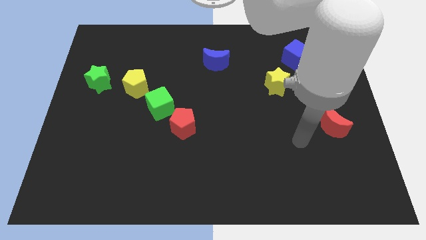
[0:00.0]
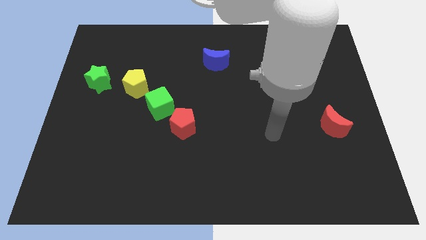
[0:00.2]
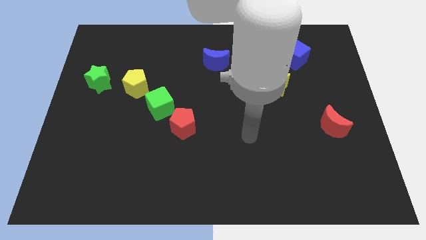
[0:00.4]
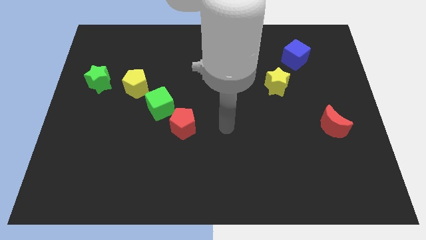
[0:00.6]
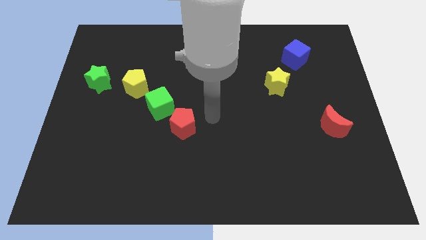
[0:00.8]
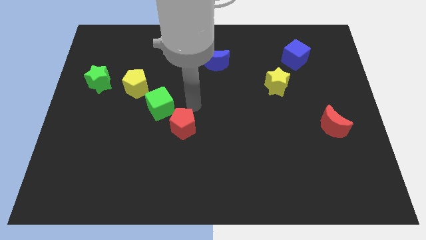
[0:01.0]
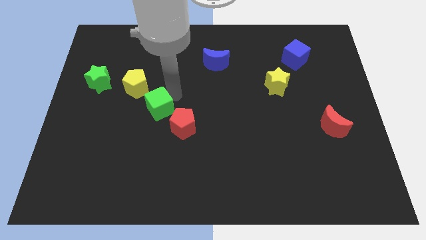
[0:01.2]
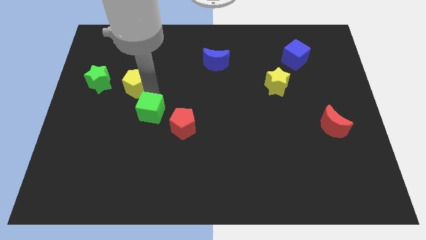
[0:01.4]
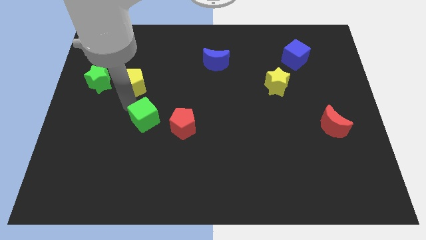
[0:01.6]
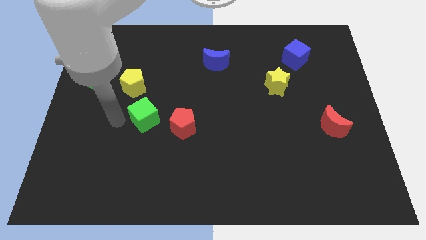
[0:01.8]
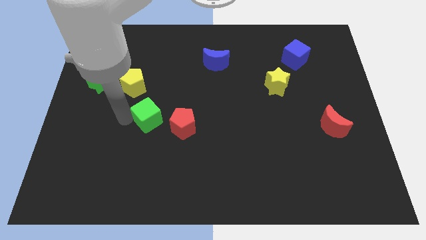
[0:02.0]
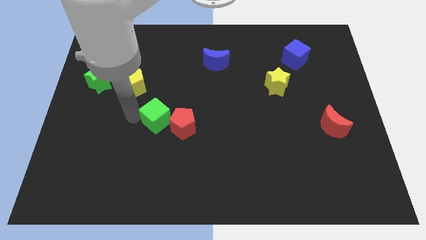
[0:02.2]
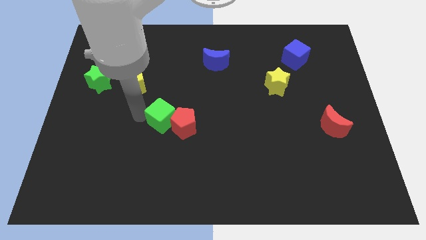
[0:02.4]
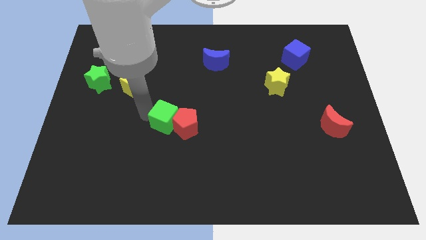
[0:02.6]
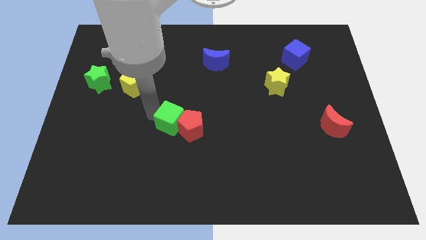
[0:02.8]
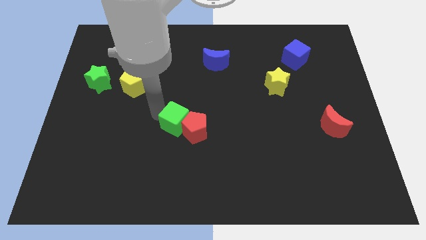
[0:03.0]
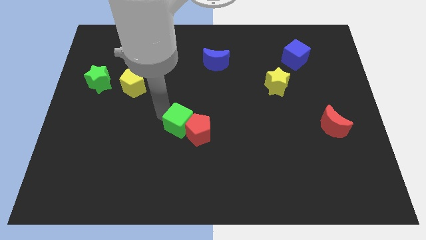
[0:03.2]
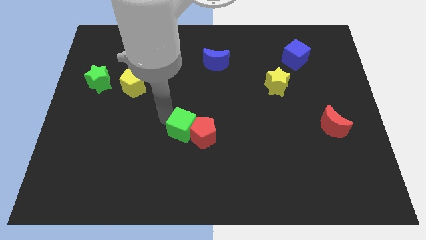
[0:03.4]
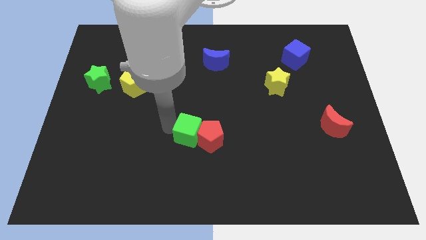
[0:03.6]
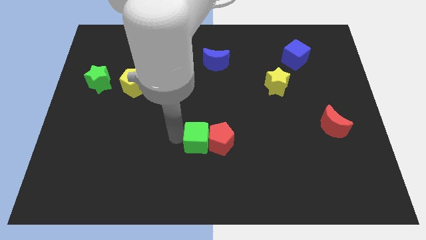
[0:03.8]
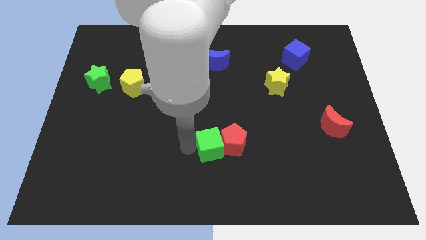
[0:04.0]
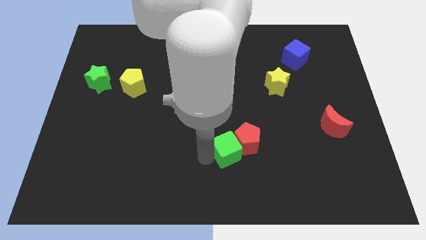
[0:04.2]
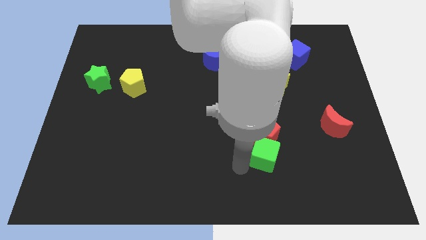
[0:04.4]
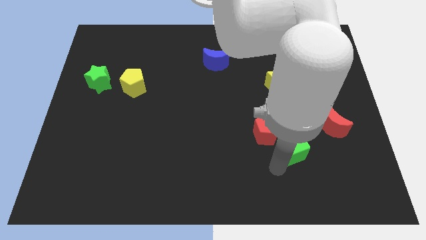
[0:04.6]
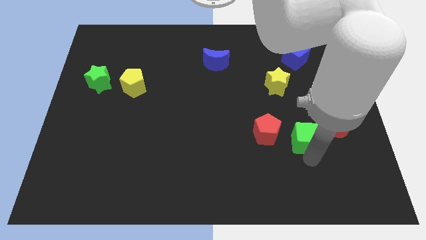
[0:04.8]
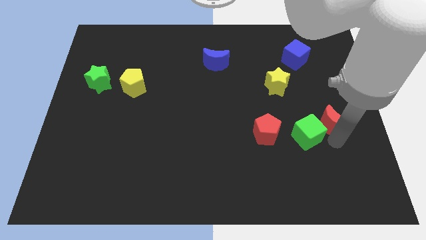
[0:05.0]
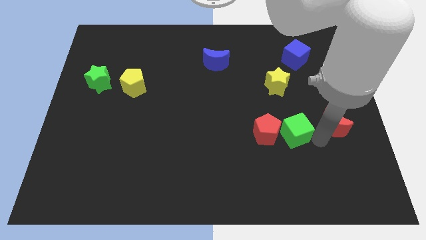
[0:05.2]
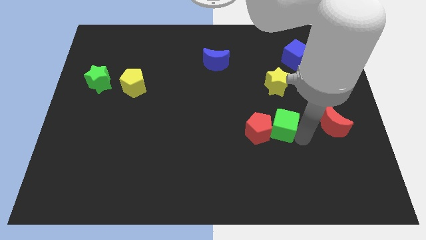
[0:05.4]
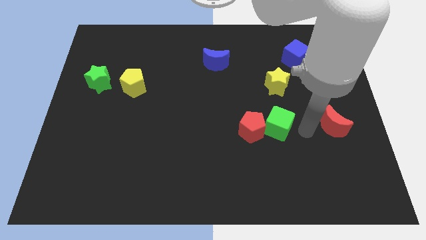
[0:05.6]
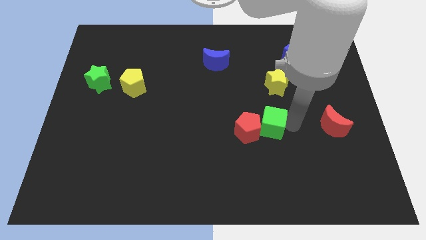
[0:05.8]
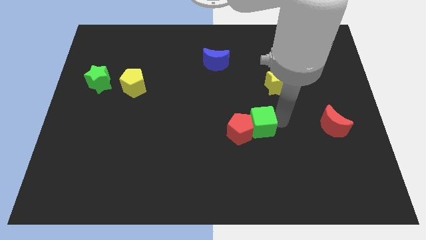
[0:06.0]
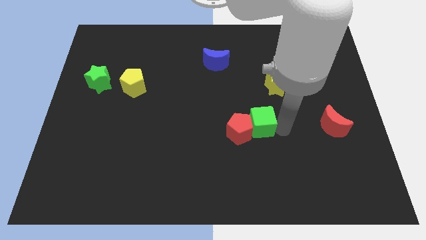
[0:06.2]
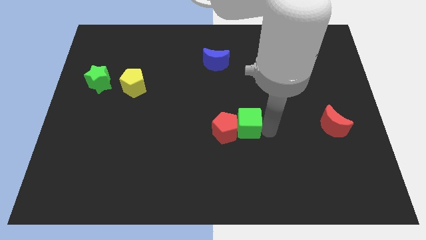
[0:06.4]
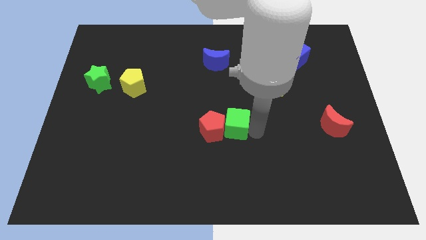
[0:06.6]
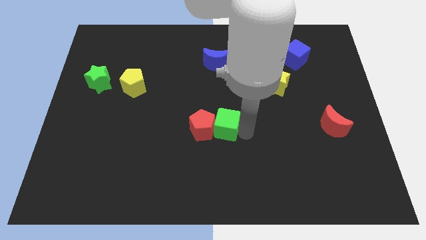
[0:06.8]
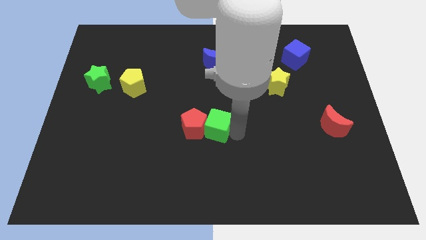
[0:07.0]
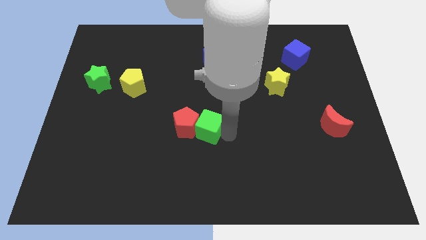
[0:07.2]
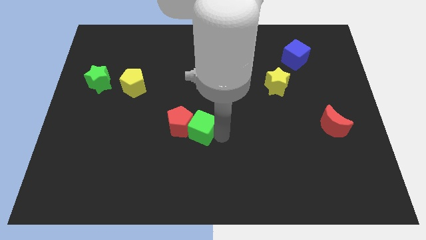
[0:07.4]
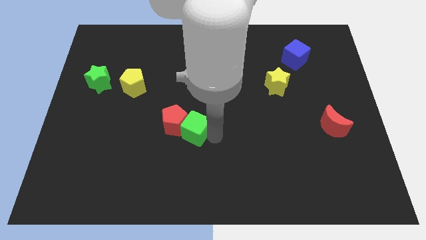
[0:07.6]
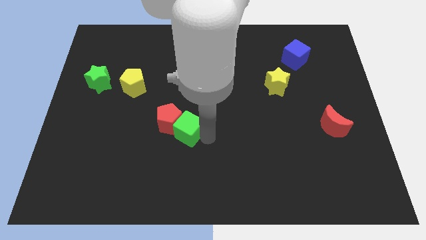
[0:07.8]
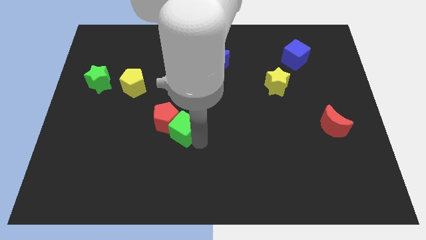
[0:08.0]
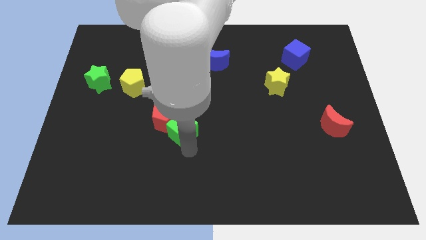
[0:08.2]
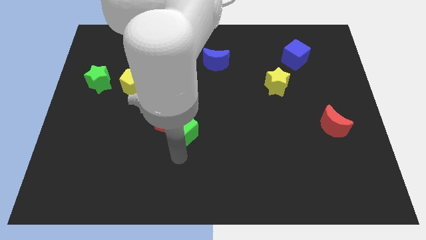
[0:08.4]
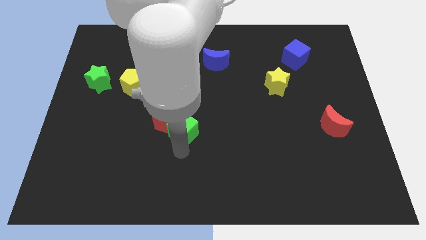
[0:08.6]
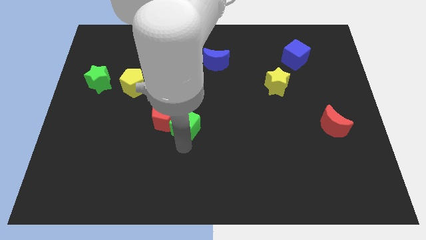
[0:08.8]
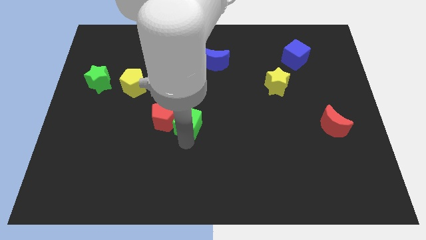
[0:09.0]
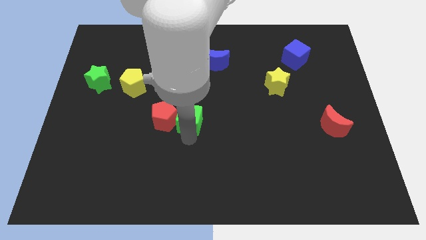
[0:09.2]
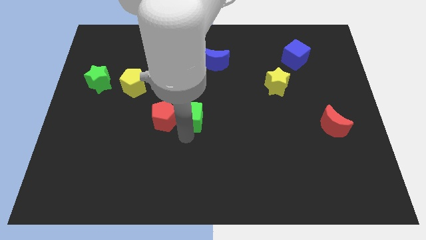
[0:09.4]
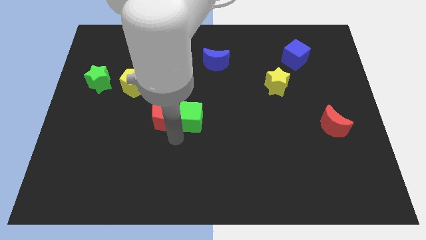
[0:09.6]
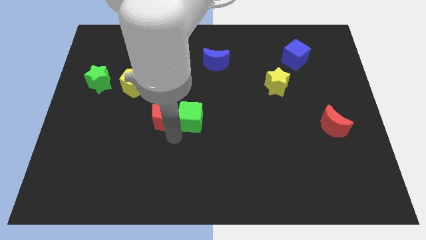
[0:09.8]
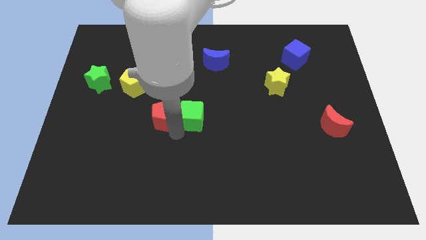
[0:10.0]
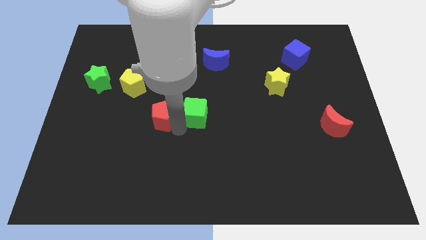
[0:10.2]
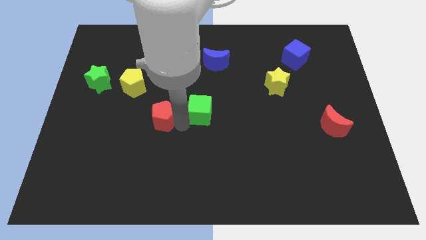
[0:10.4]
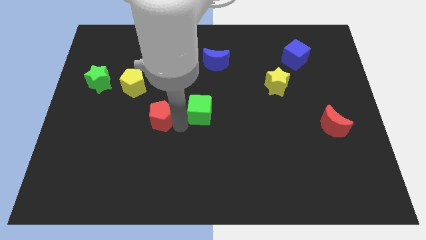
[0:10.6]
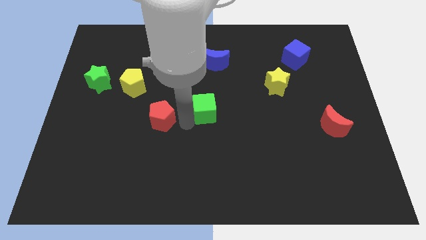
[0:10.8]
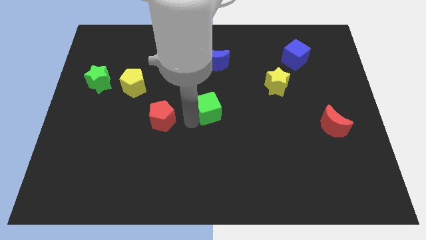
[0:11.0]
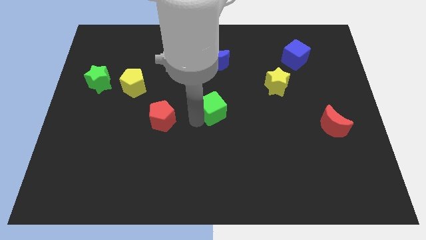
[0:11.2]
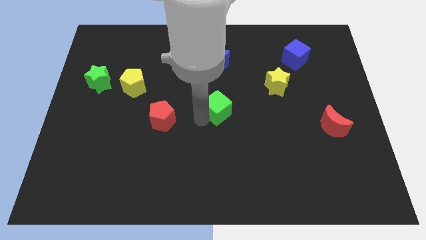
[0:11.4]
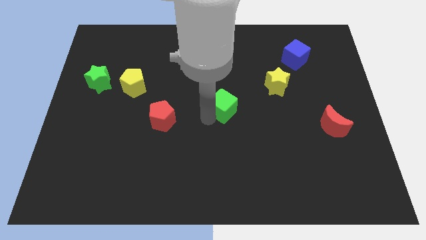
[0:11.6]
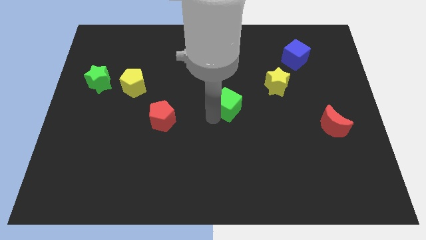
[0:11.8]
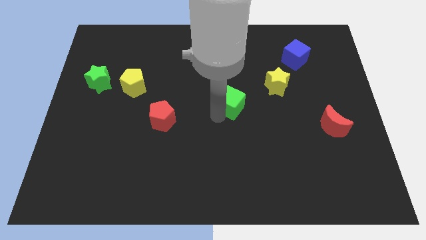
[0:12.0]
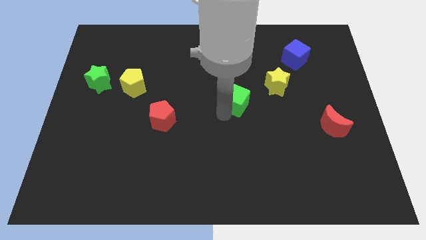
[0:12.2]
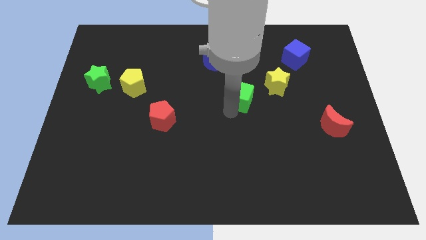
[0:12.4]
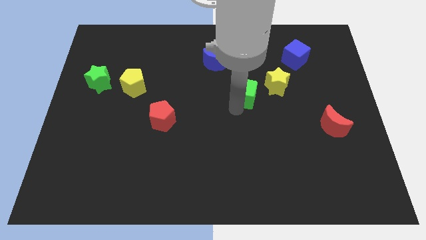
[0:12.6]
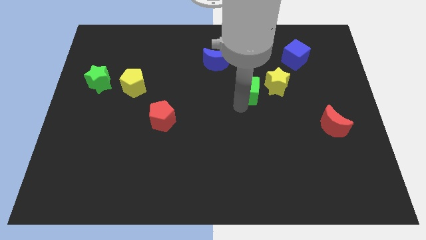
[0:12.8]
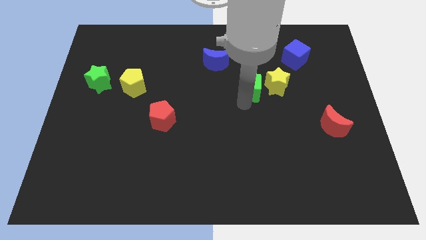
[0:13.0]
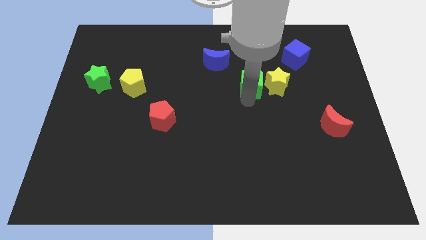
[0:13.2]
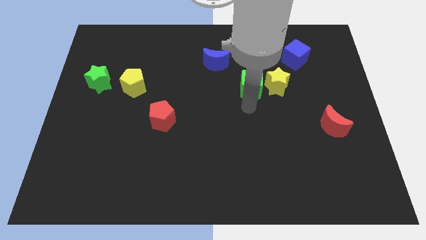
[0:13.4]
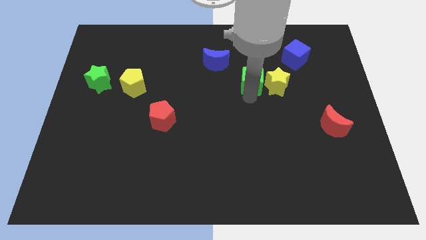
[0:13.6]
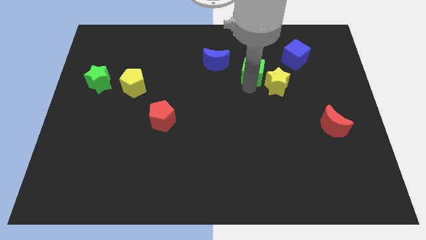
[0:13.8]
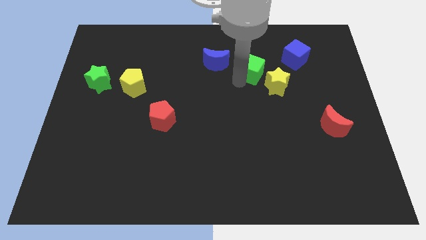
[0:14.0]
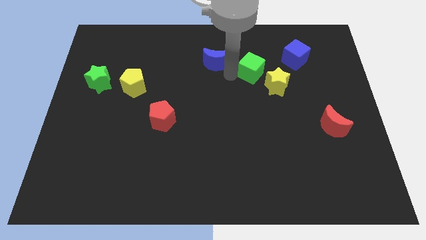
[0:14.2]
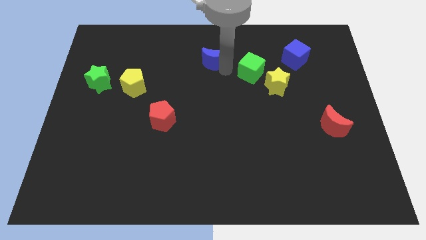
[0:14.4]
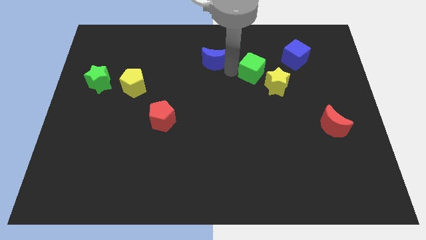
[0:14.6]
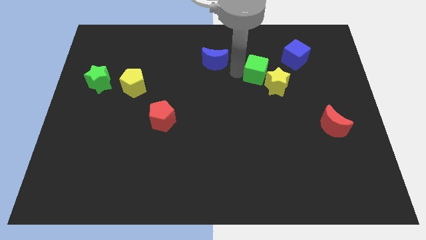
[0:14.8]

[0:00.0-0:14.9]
slide the green cube to the bottom left of the blue cube

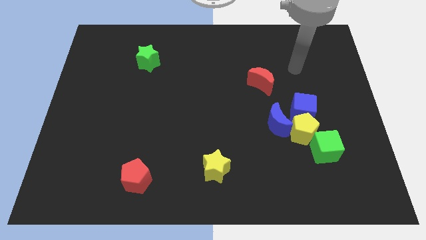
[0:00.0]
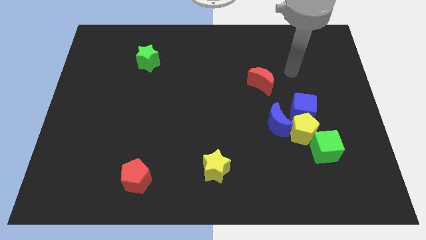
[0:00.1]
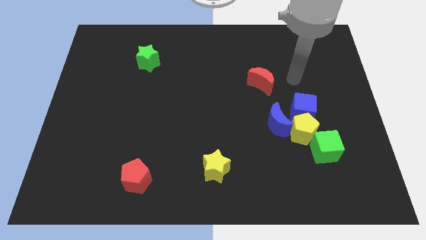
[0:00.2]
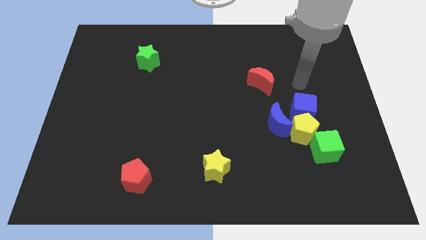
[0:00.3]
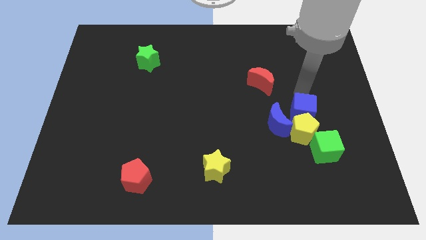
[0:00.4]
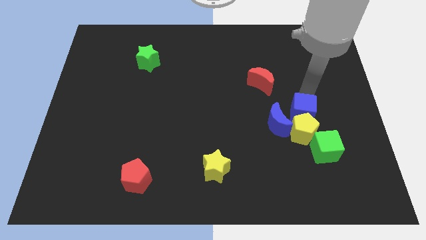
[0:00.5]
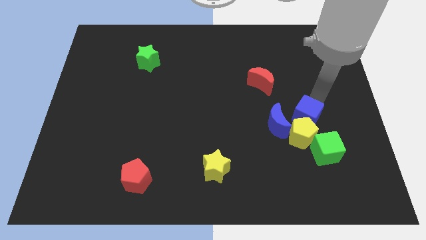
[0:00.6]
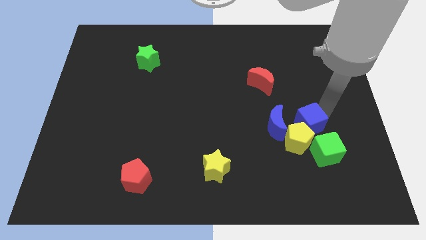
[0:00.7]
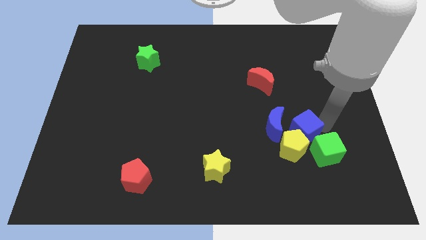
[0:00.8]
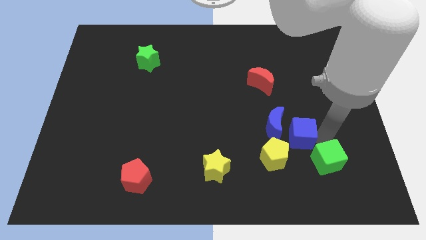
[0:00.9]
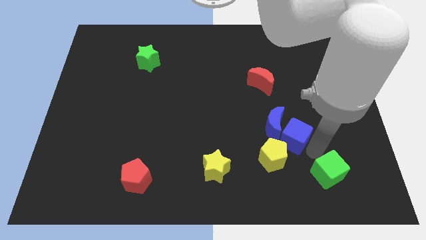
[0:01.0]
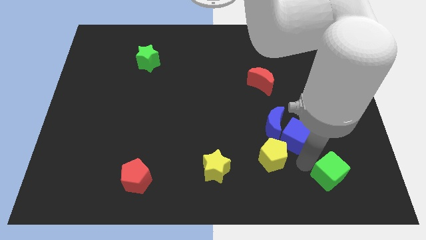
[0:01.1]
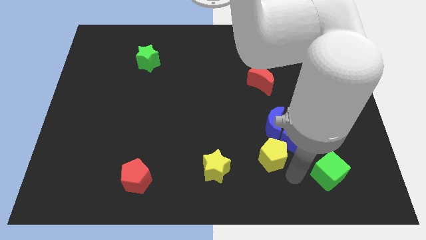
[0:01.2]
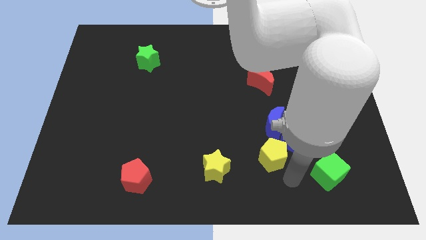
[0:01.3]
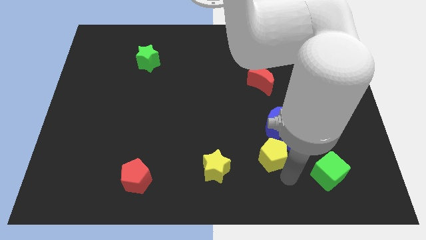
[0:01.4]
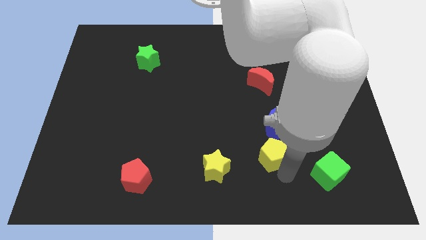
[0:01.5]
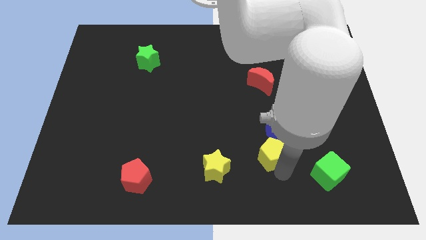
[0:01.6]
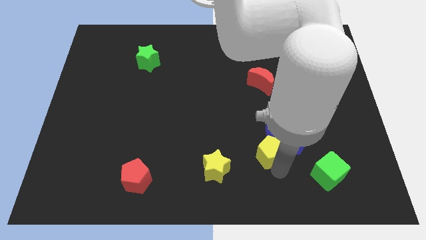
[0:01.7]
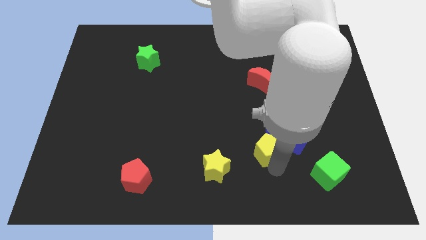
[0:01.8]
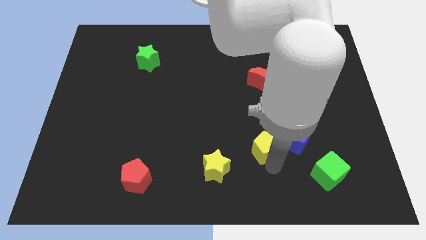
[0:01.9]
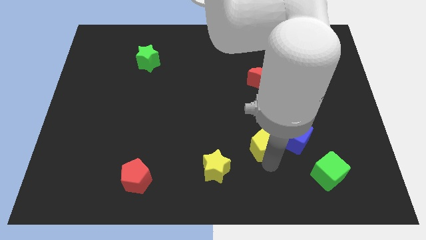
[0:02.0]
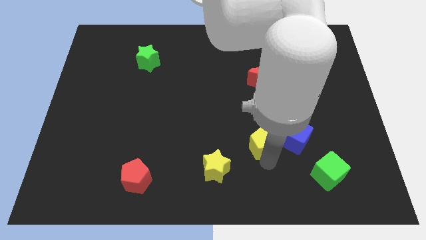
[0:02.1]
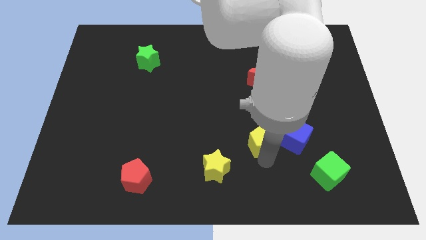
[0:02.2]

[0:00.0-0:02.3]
push the yellow pentagon to the left side of the blue moon
